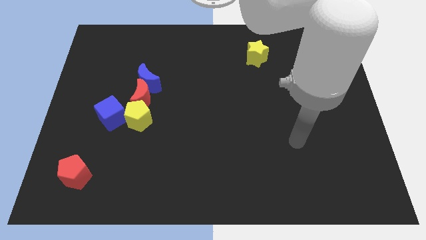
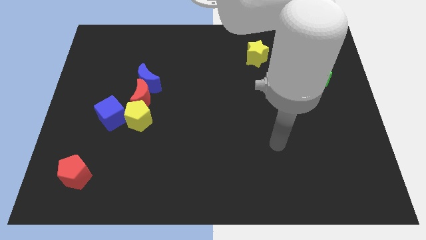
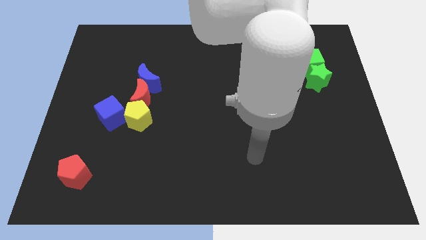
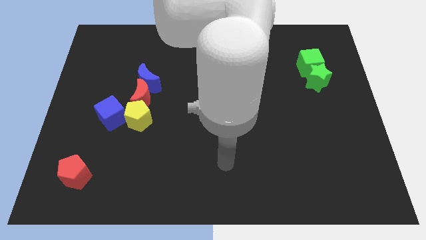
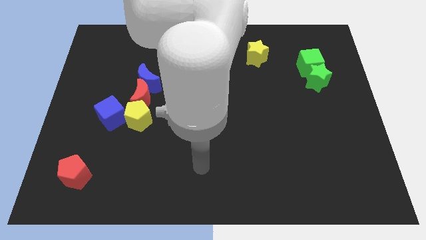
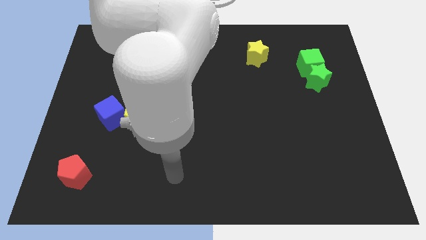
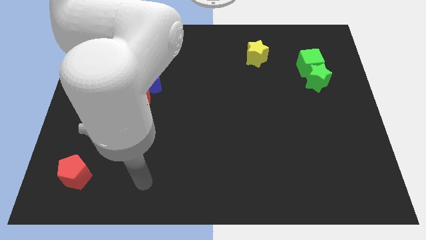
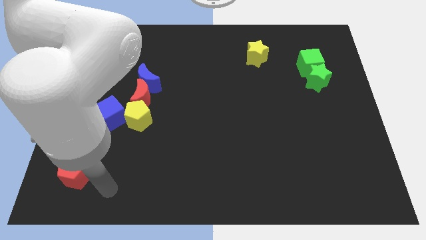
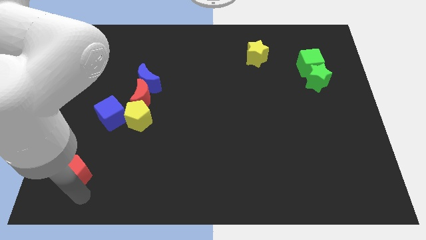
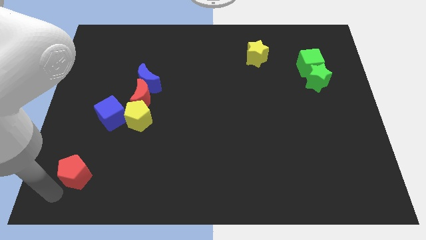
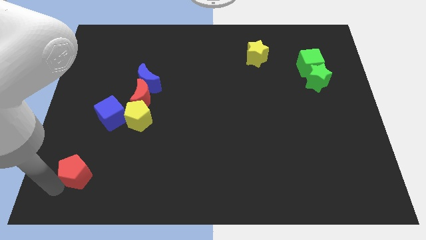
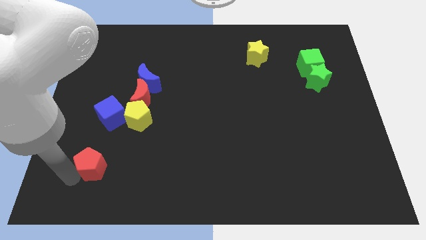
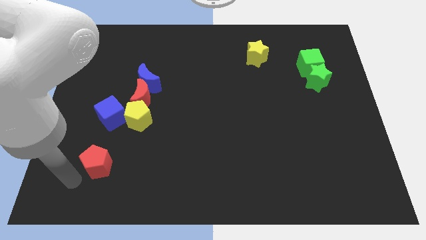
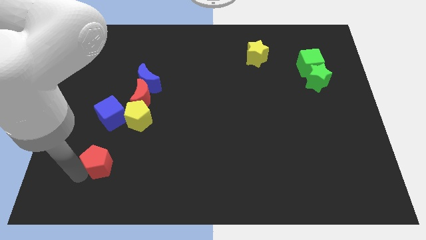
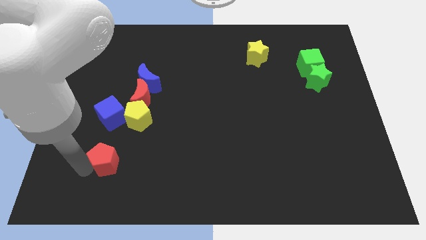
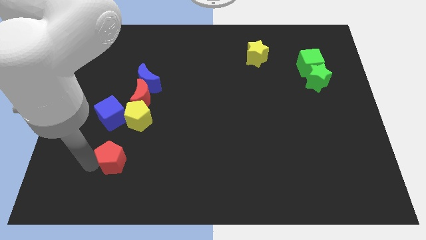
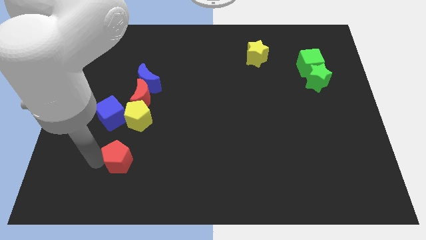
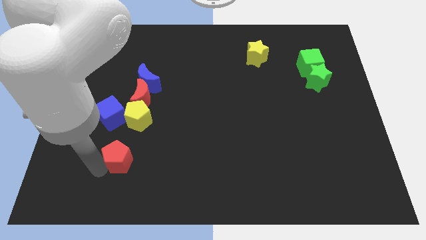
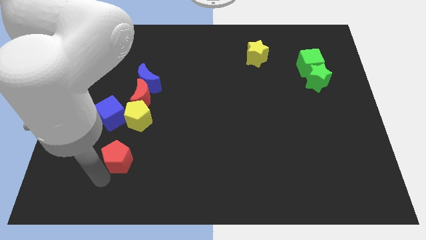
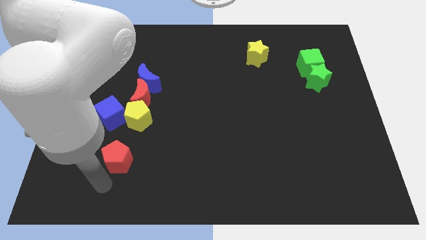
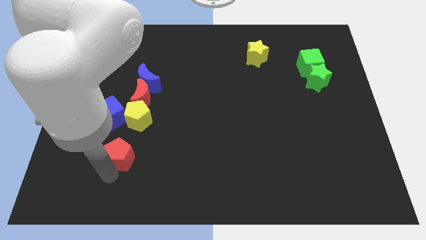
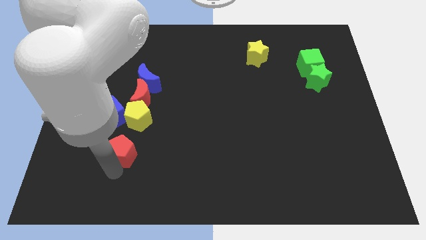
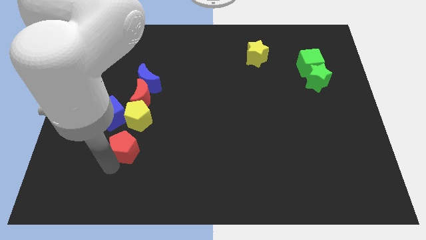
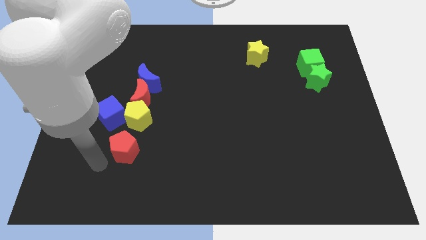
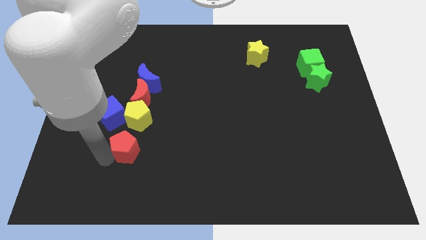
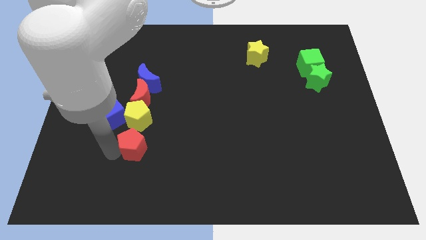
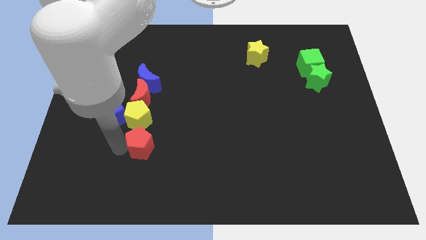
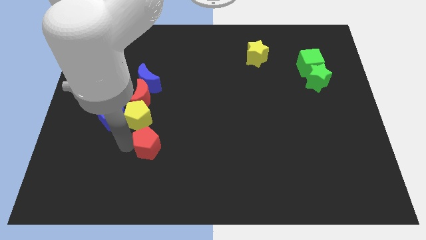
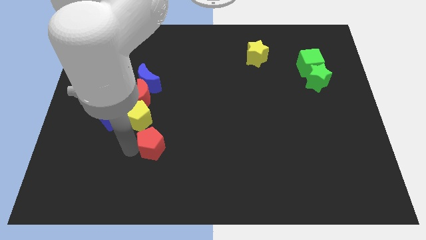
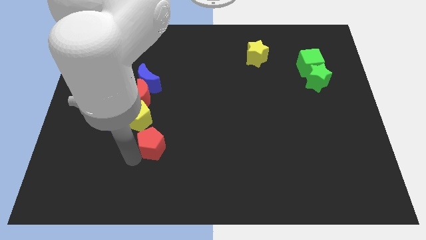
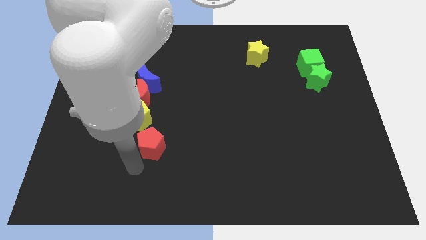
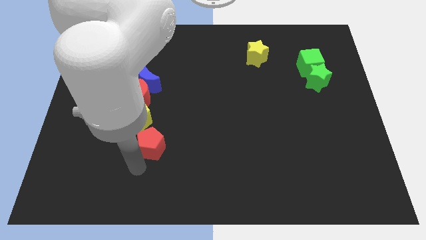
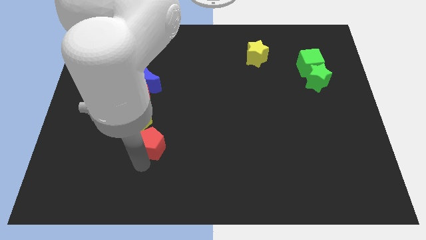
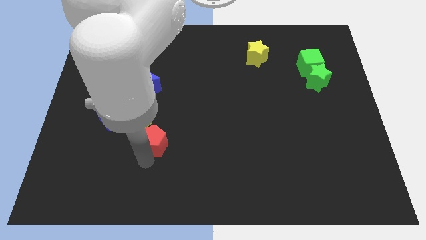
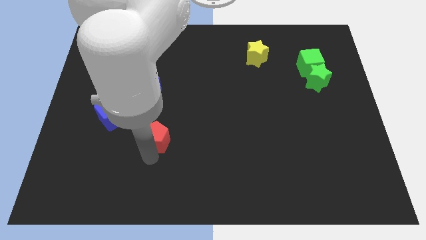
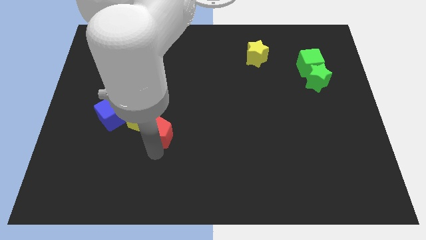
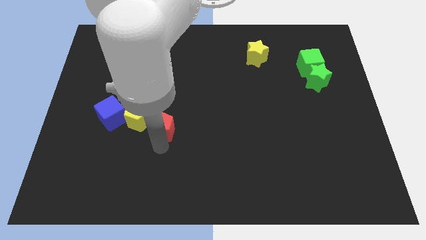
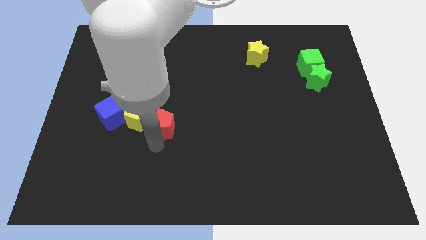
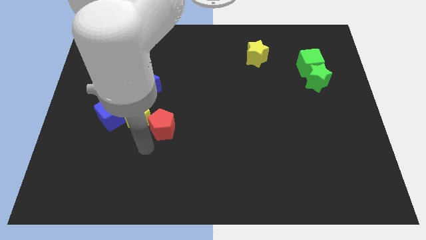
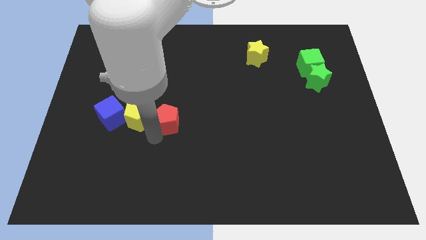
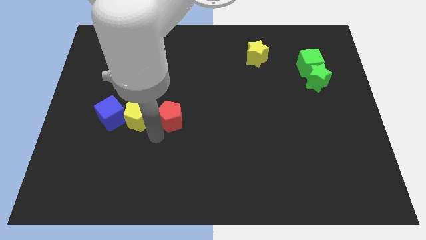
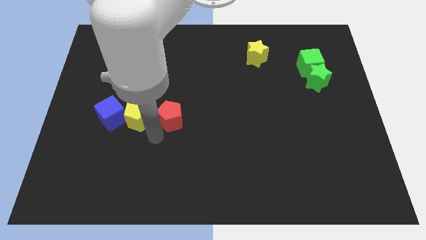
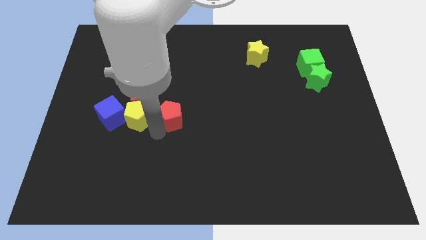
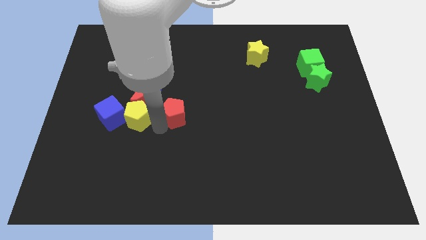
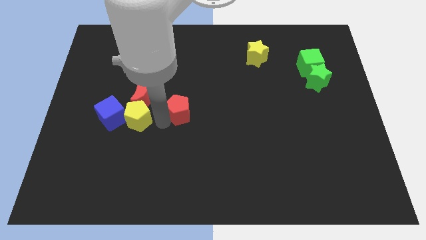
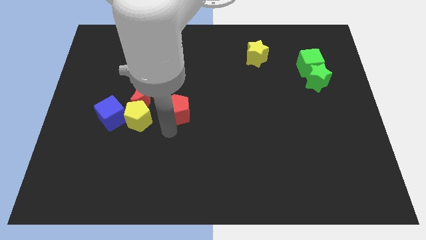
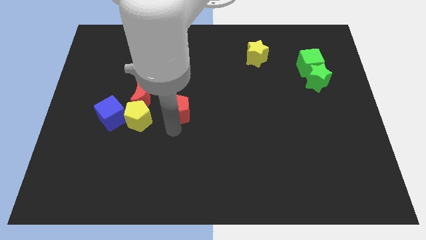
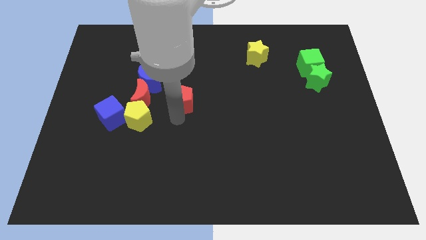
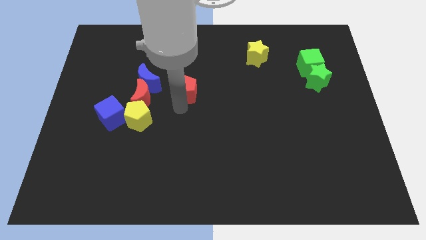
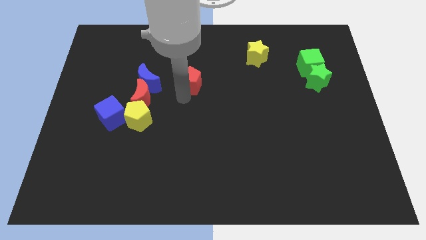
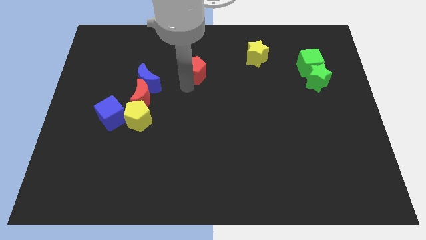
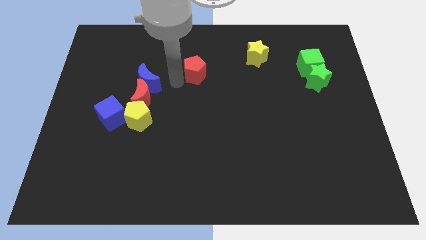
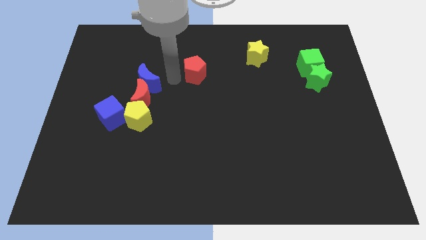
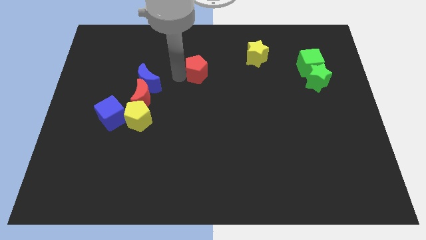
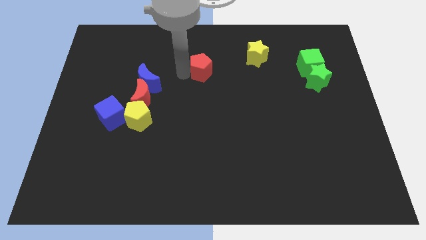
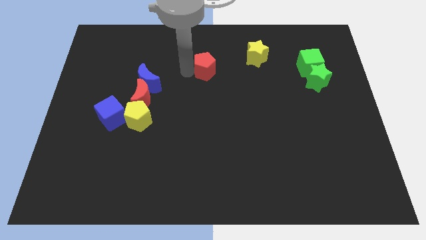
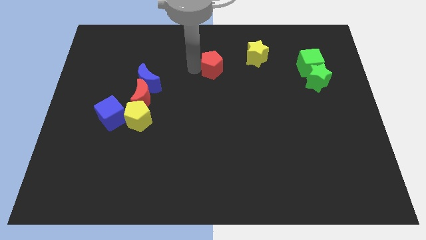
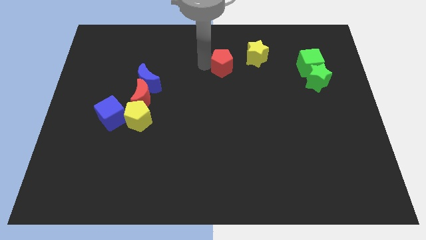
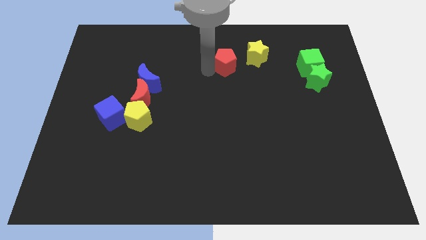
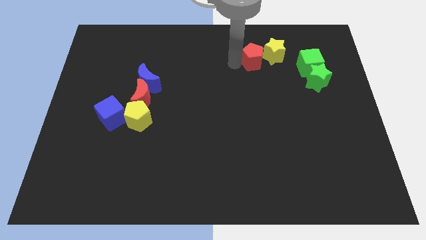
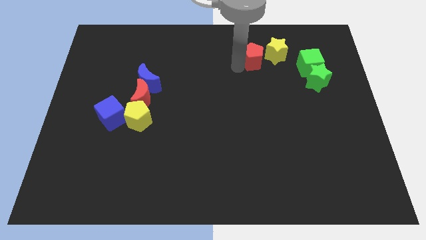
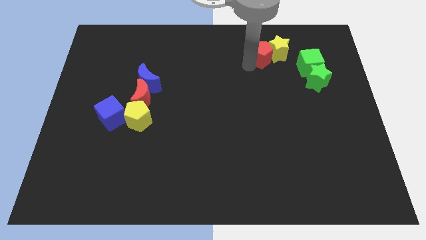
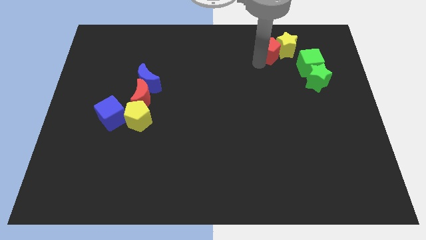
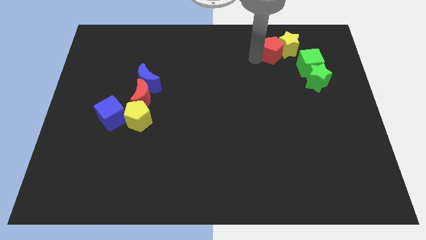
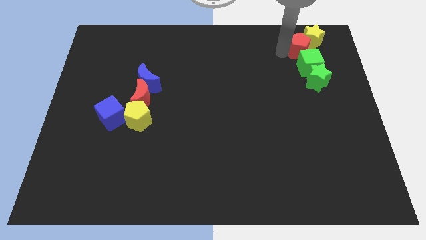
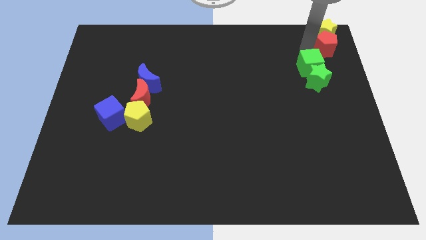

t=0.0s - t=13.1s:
move the red pentagon to the upper right corner

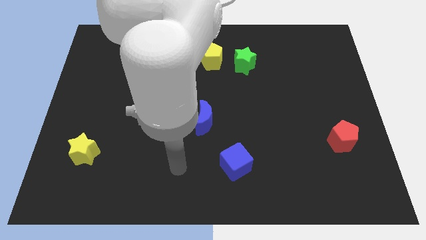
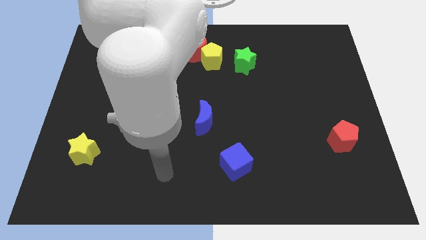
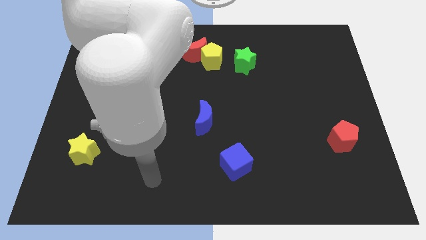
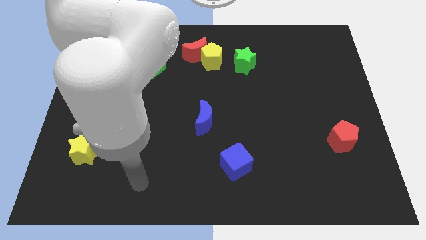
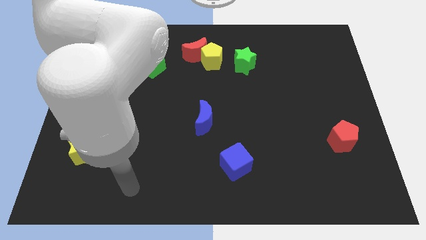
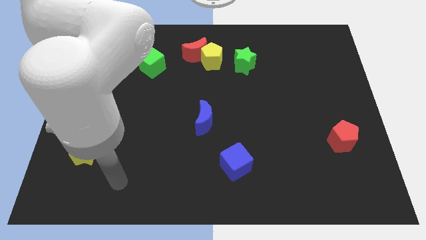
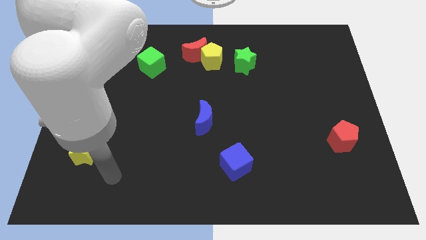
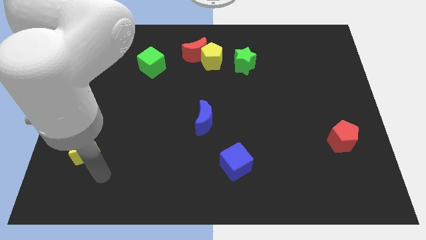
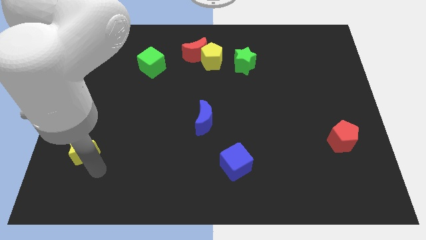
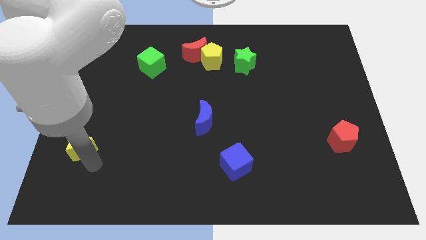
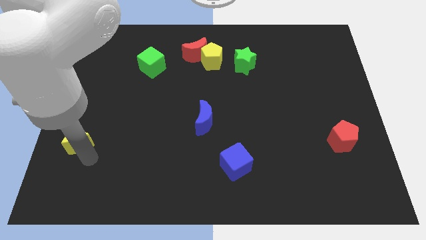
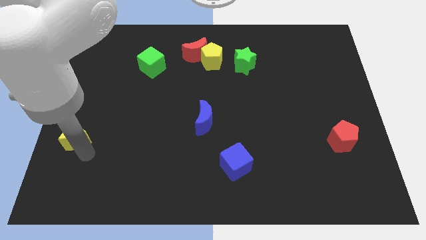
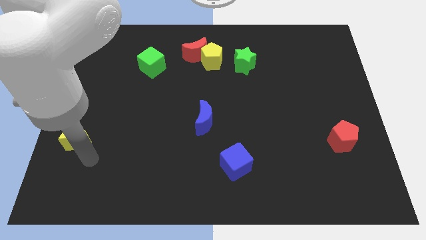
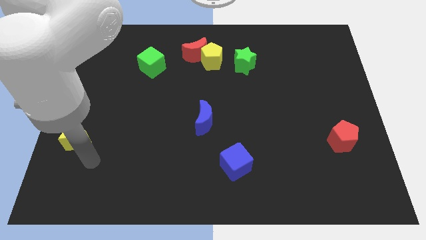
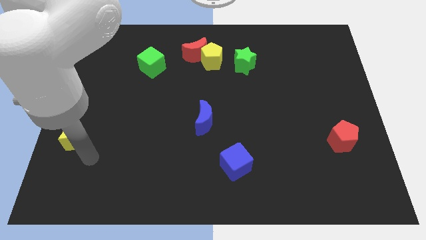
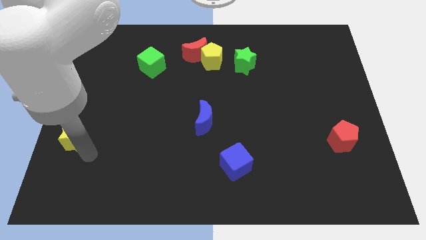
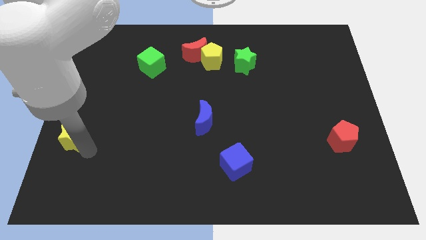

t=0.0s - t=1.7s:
slide the yellow star to the left side of the board
